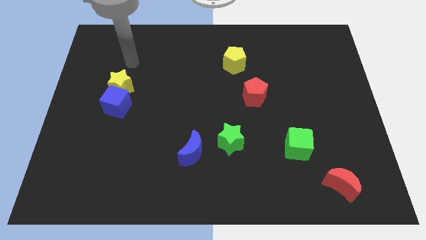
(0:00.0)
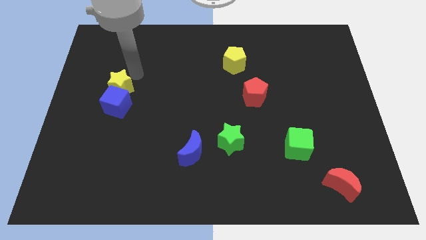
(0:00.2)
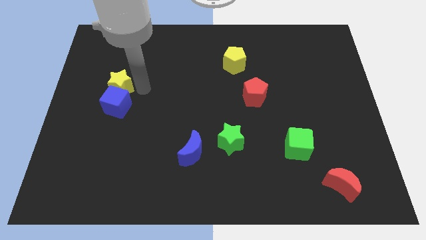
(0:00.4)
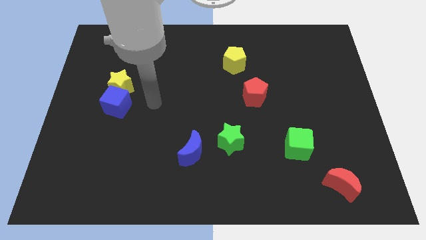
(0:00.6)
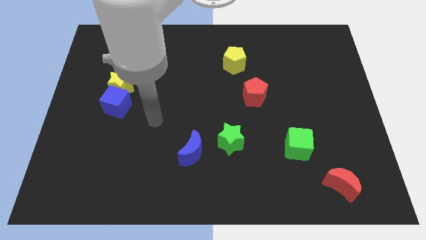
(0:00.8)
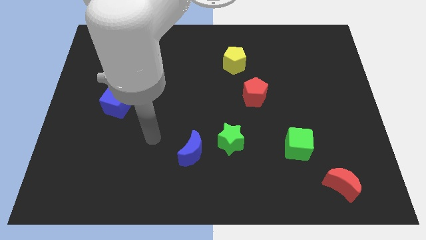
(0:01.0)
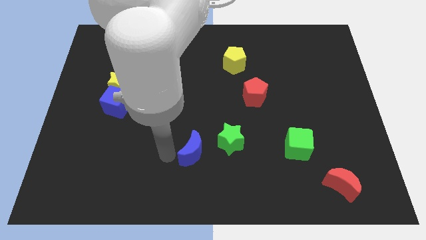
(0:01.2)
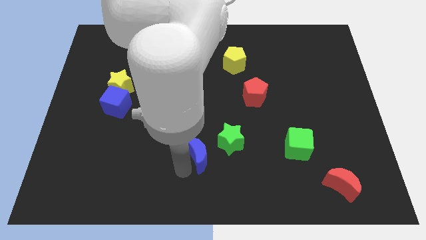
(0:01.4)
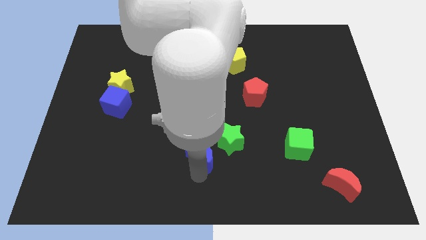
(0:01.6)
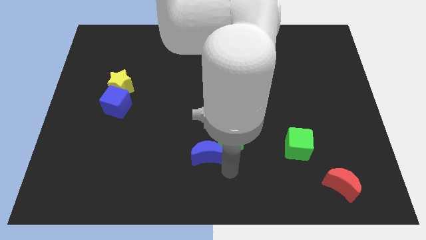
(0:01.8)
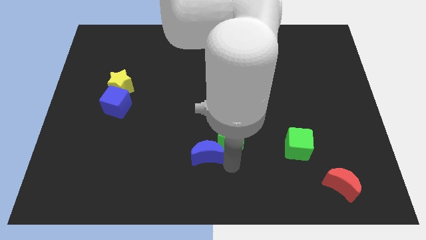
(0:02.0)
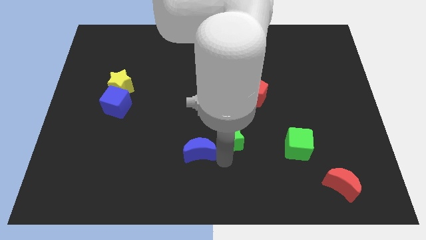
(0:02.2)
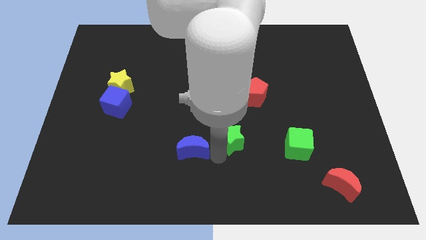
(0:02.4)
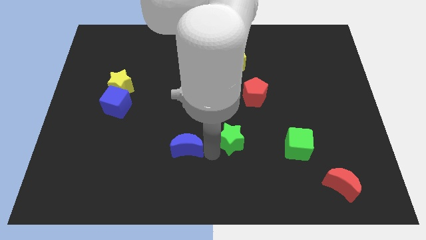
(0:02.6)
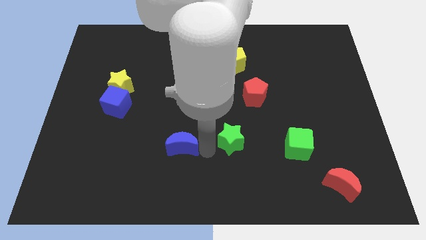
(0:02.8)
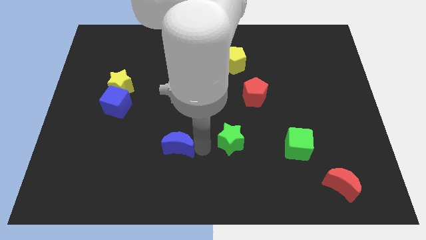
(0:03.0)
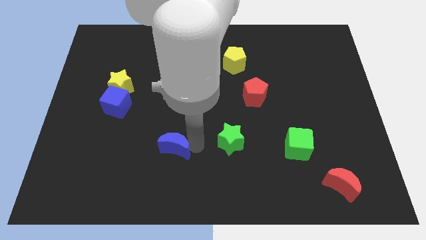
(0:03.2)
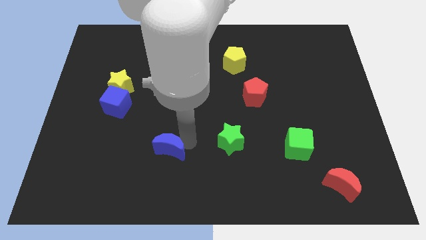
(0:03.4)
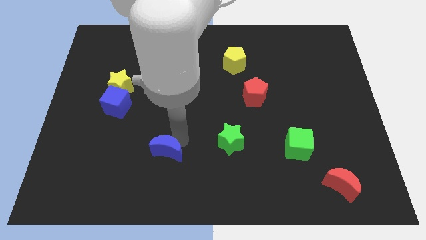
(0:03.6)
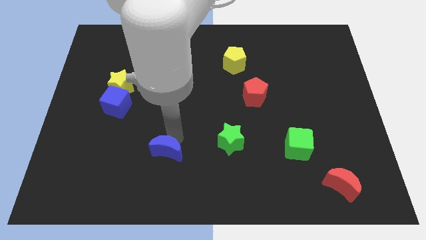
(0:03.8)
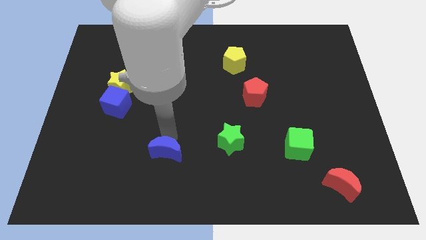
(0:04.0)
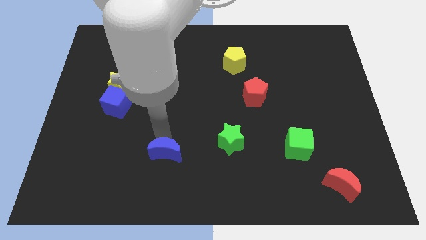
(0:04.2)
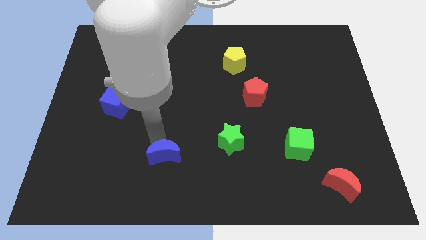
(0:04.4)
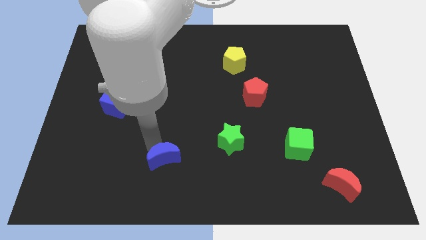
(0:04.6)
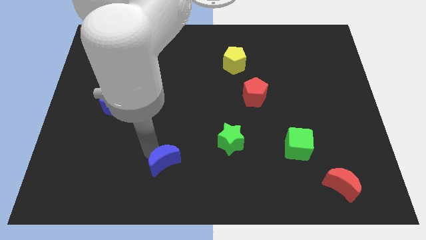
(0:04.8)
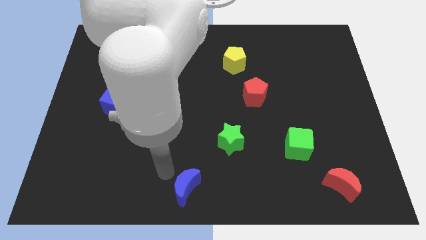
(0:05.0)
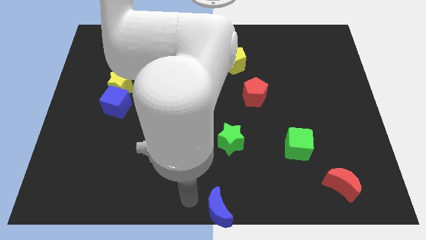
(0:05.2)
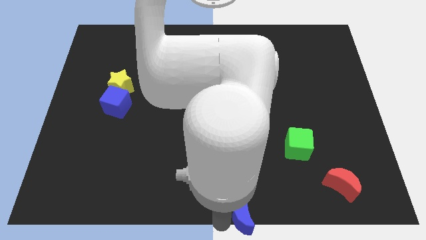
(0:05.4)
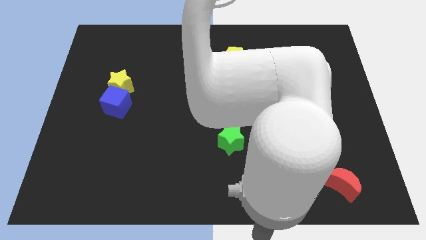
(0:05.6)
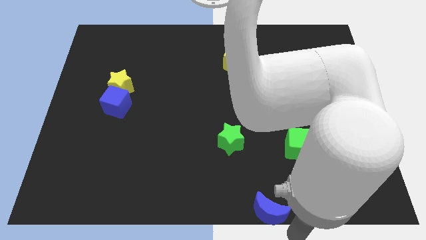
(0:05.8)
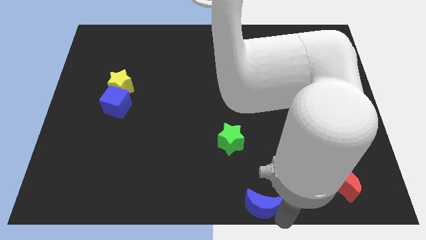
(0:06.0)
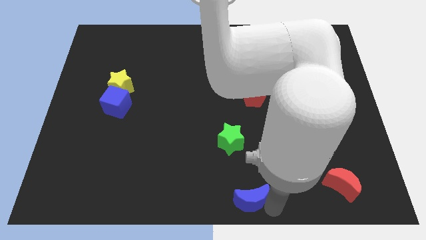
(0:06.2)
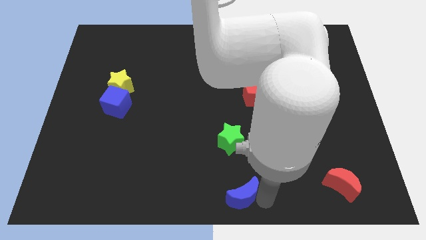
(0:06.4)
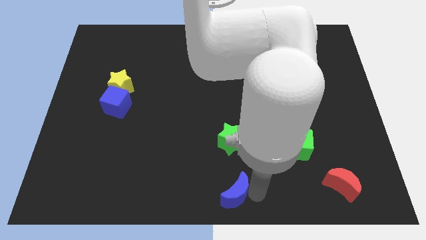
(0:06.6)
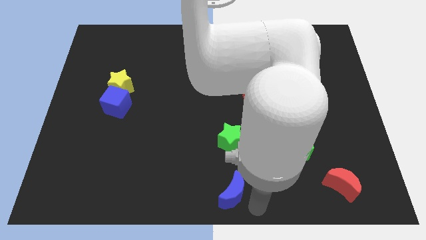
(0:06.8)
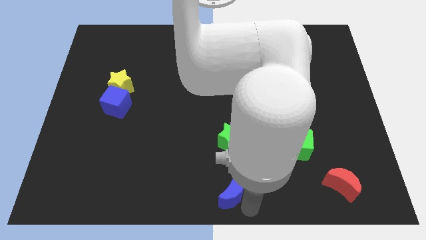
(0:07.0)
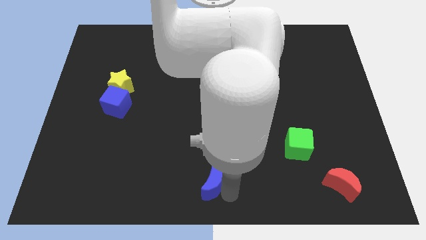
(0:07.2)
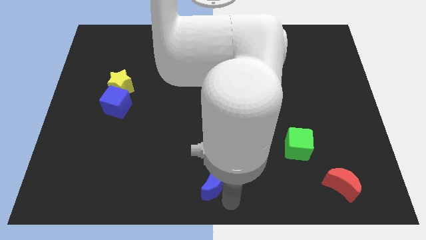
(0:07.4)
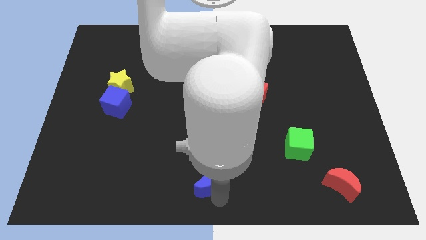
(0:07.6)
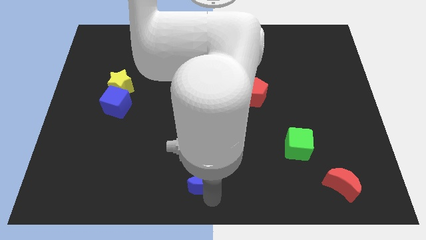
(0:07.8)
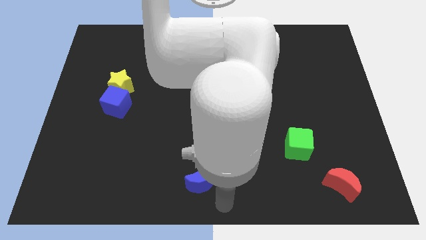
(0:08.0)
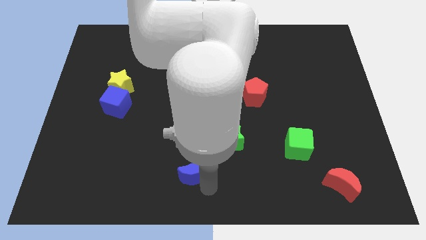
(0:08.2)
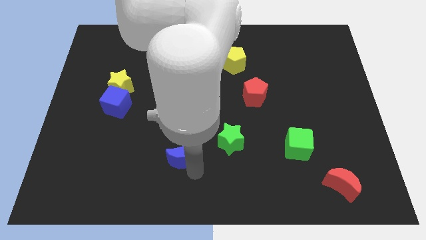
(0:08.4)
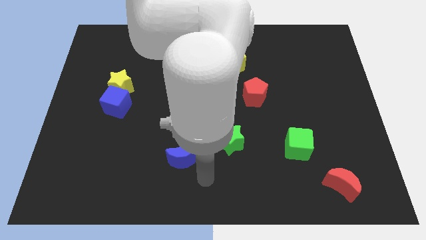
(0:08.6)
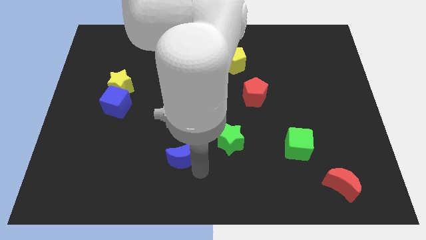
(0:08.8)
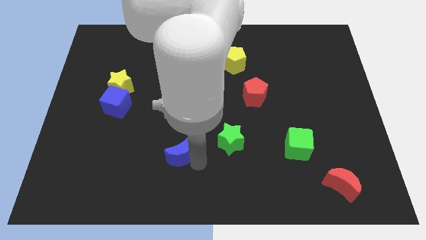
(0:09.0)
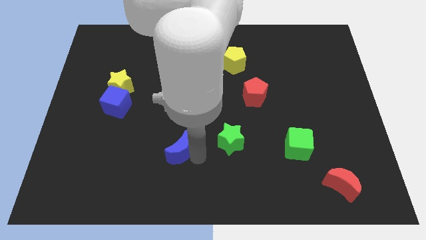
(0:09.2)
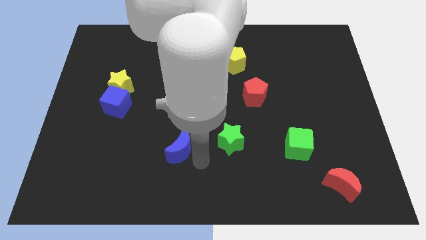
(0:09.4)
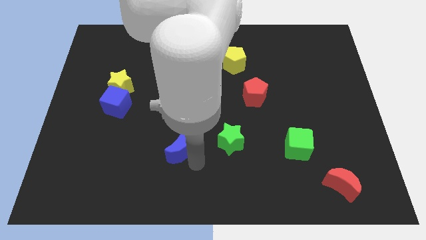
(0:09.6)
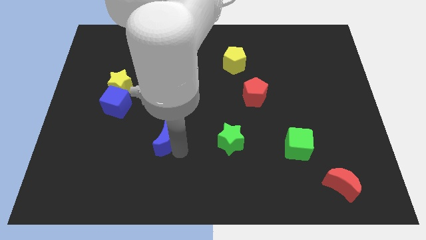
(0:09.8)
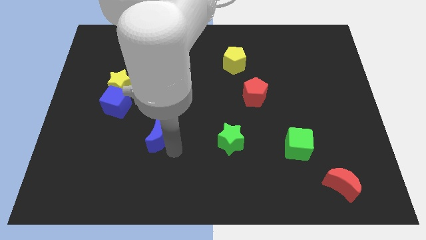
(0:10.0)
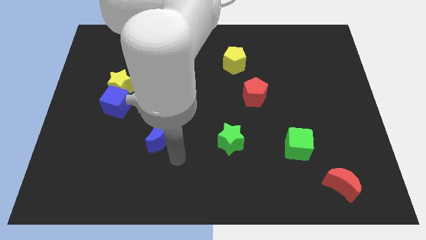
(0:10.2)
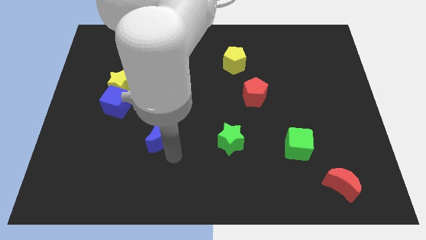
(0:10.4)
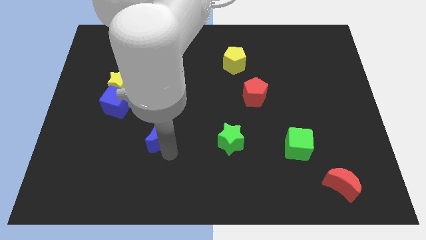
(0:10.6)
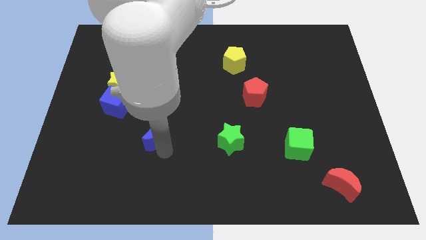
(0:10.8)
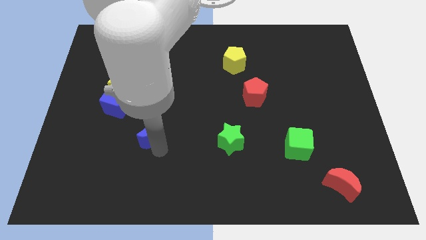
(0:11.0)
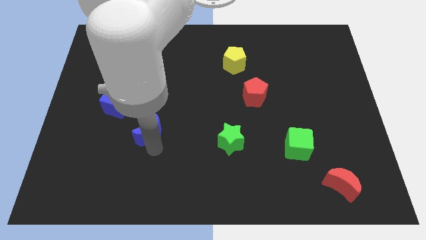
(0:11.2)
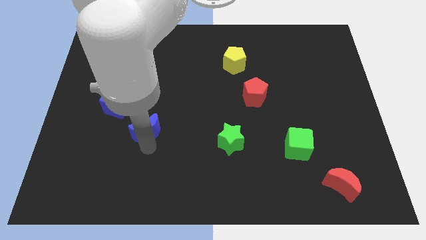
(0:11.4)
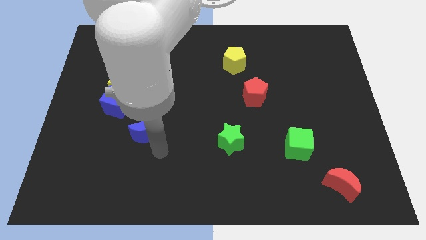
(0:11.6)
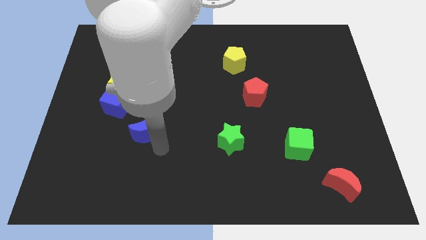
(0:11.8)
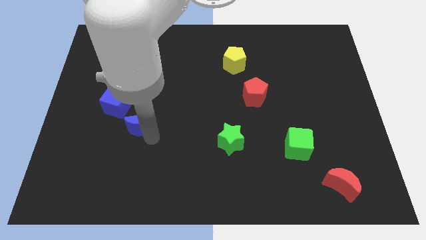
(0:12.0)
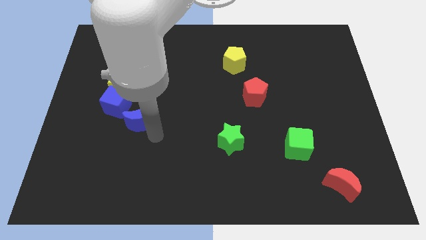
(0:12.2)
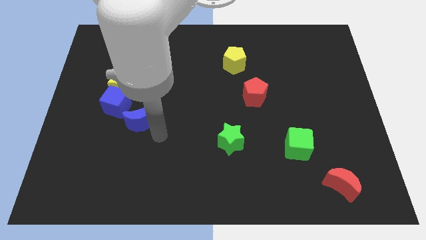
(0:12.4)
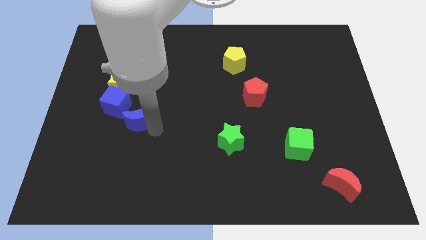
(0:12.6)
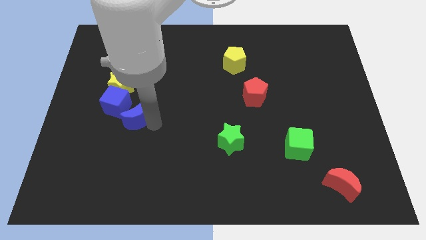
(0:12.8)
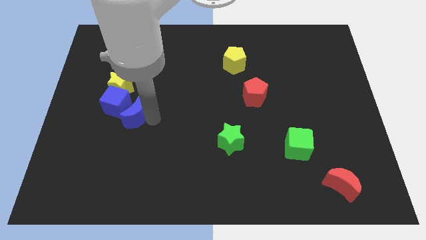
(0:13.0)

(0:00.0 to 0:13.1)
move the blue moon towards the blue cube
